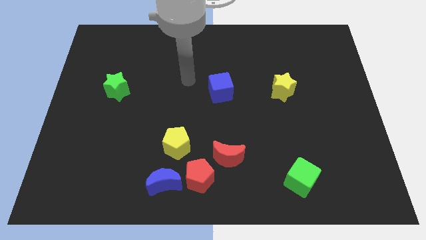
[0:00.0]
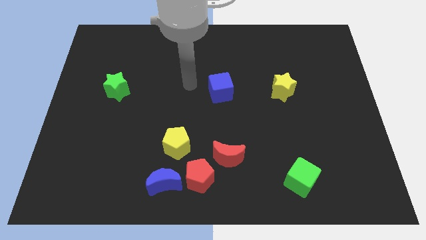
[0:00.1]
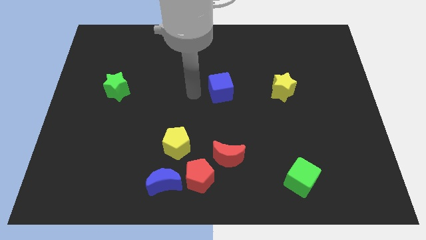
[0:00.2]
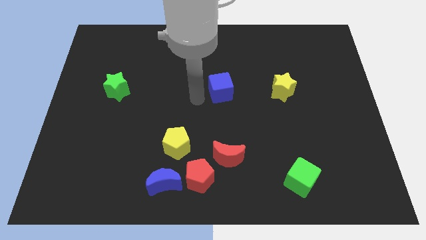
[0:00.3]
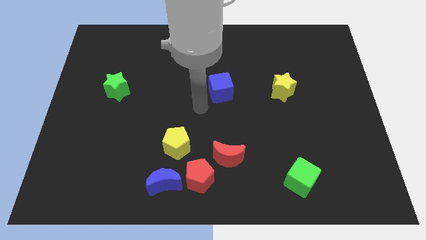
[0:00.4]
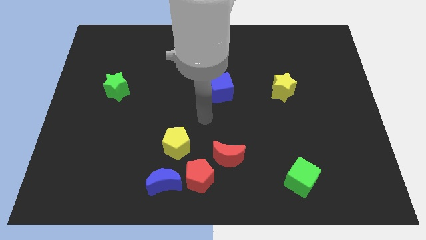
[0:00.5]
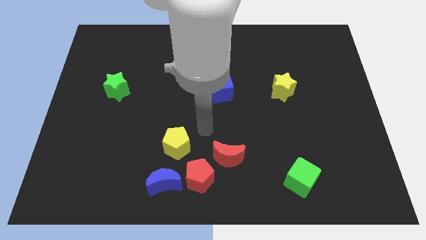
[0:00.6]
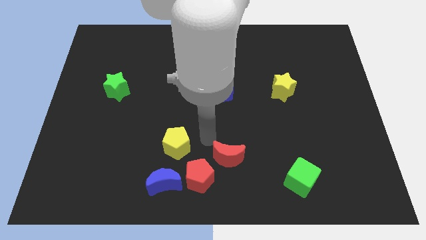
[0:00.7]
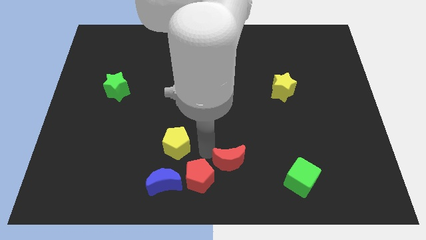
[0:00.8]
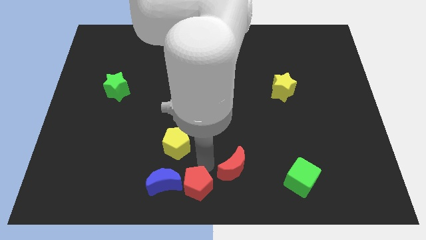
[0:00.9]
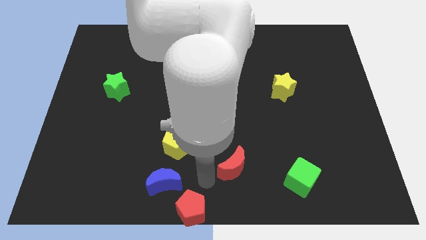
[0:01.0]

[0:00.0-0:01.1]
separate the red moon from the red pentagon

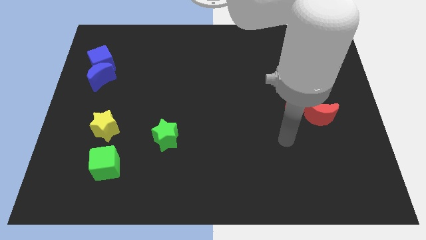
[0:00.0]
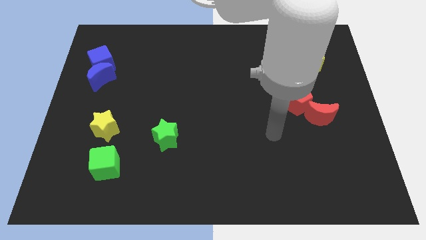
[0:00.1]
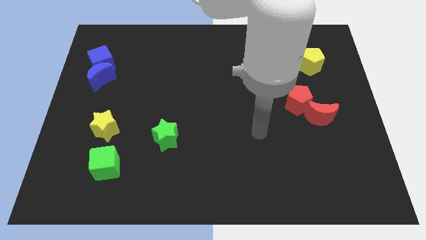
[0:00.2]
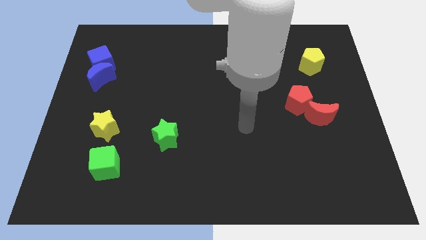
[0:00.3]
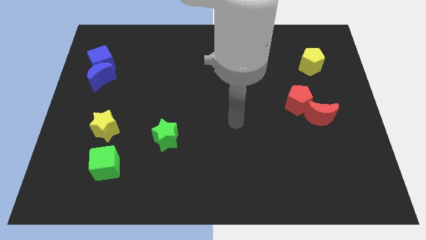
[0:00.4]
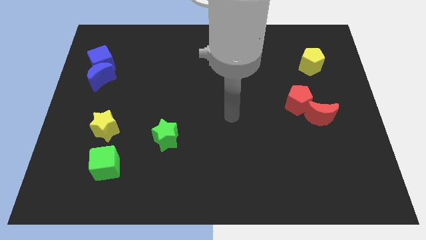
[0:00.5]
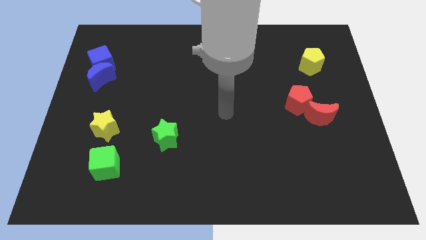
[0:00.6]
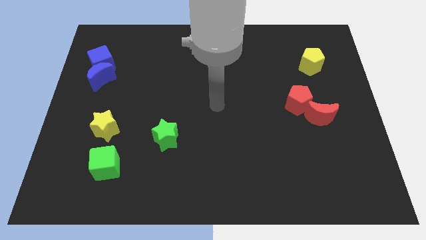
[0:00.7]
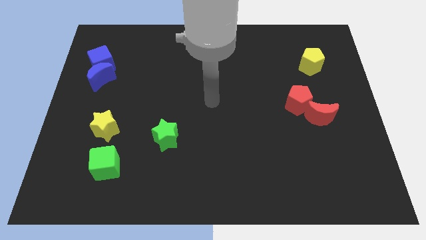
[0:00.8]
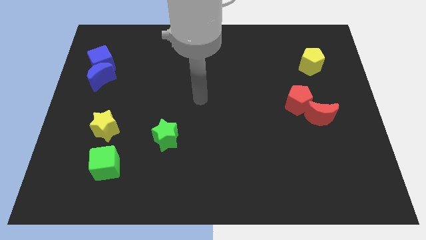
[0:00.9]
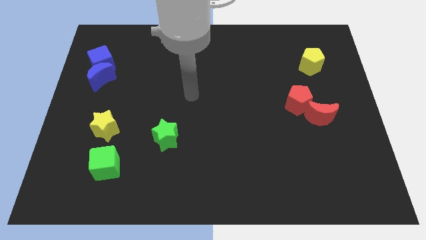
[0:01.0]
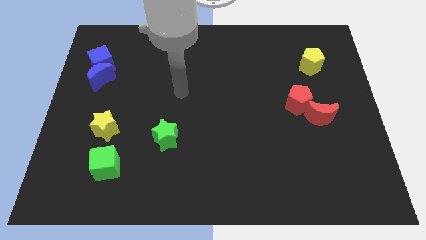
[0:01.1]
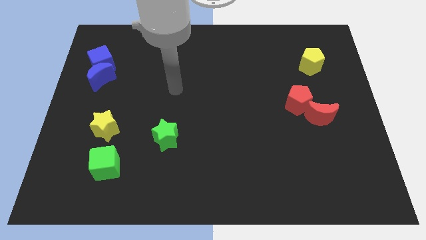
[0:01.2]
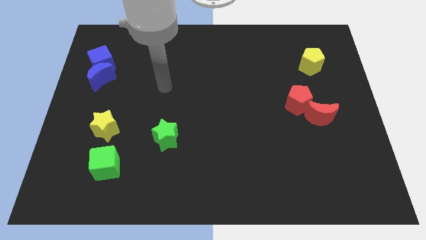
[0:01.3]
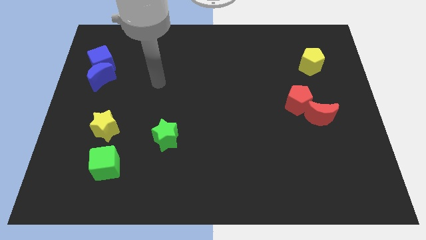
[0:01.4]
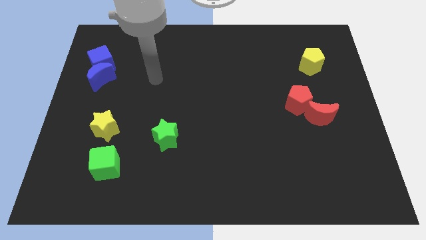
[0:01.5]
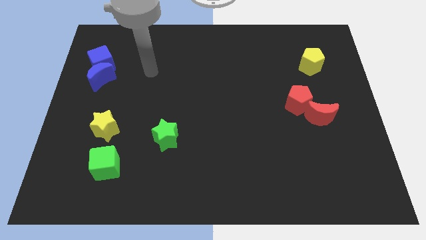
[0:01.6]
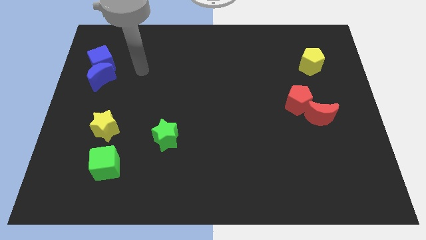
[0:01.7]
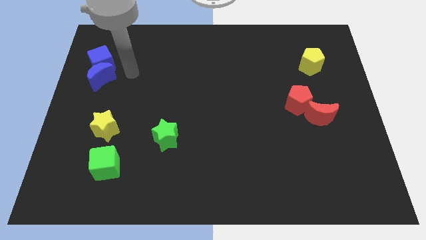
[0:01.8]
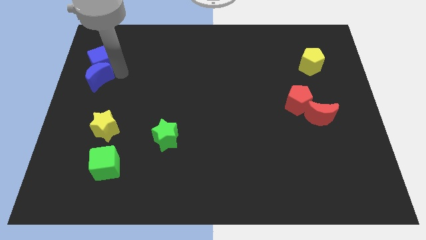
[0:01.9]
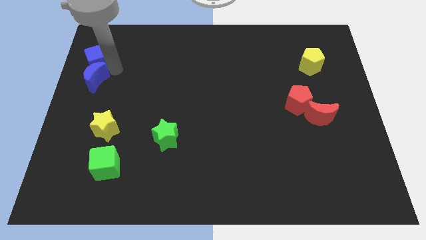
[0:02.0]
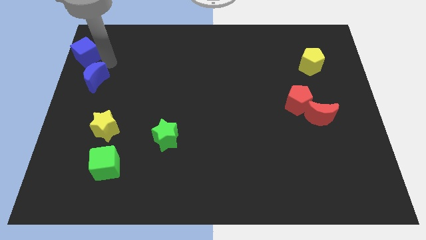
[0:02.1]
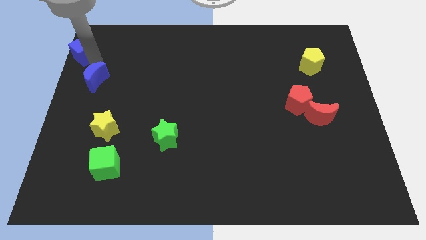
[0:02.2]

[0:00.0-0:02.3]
pull the blue moon apart from the blue cube

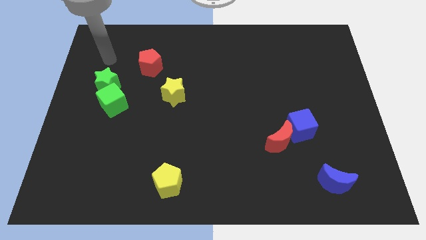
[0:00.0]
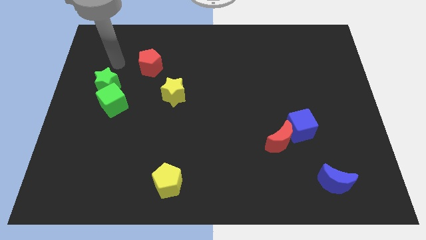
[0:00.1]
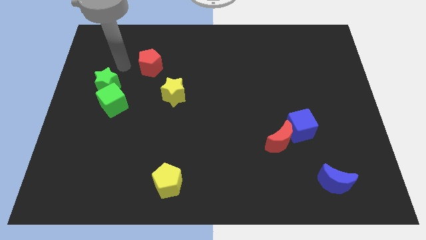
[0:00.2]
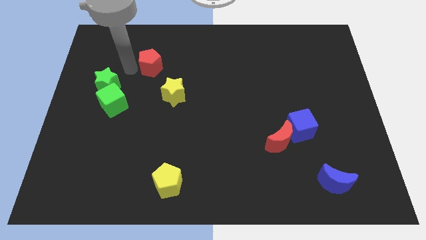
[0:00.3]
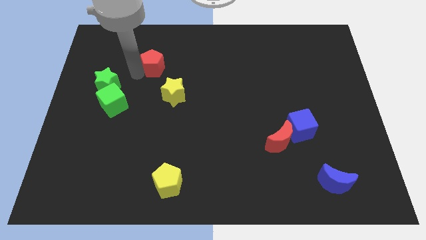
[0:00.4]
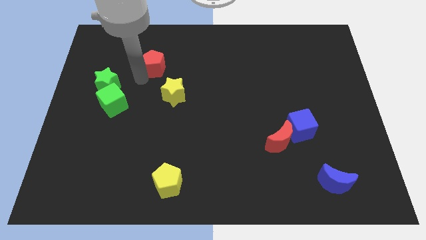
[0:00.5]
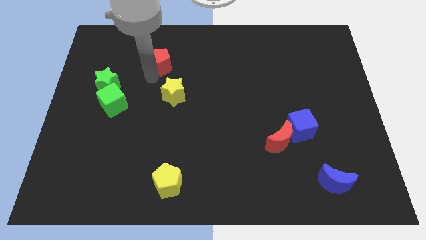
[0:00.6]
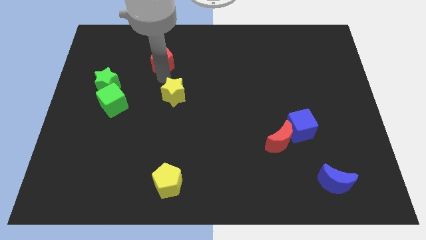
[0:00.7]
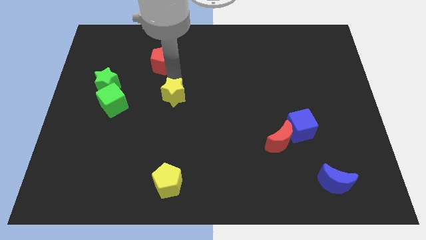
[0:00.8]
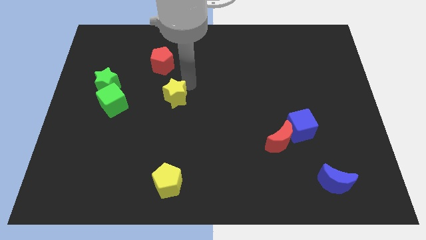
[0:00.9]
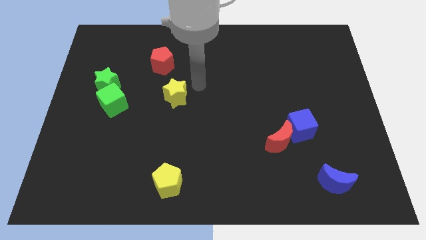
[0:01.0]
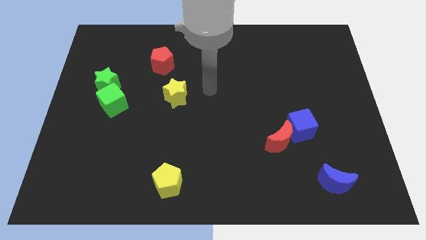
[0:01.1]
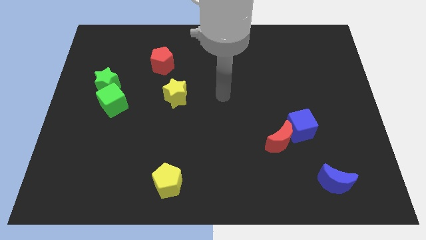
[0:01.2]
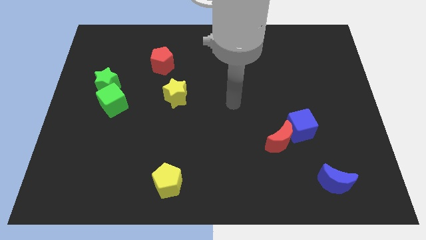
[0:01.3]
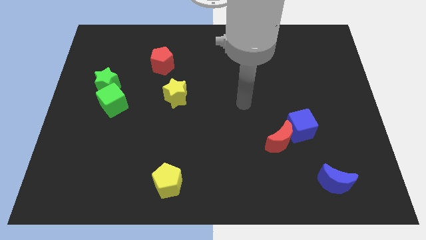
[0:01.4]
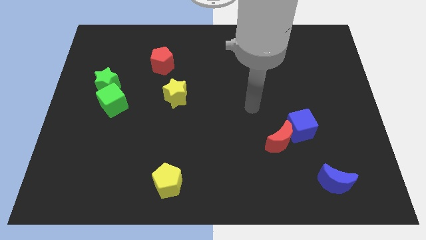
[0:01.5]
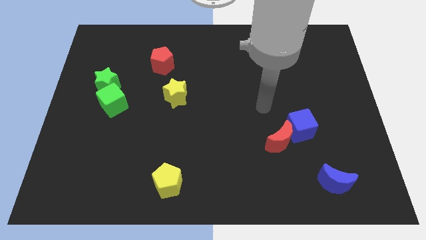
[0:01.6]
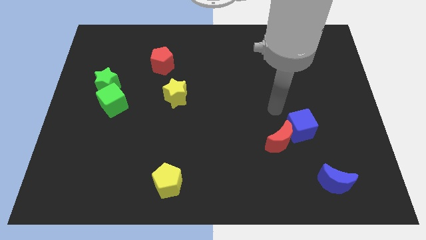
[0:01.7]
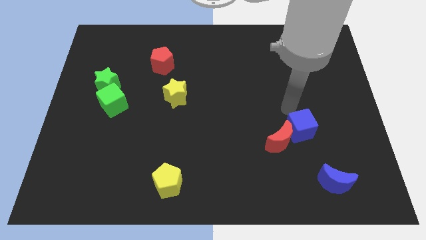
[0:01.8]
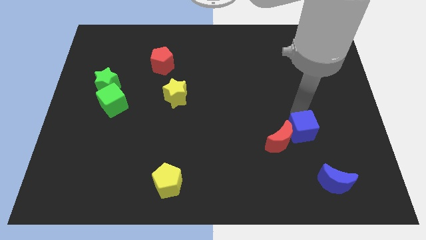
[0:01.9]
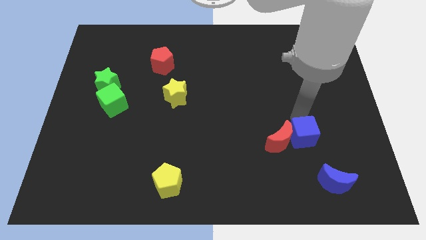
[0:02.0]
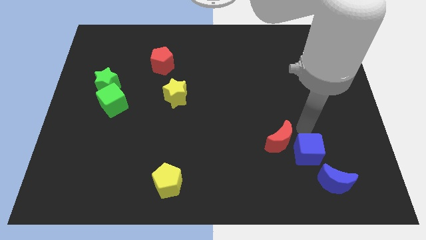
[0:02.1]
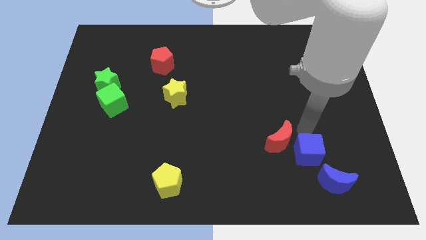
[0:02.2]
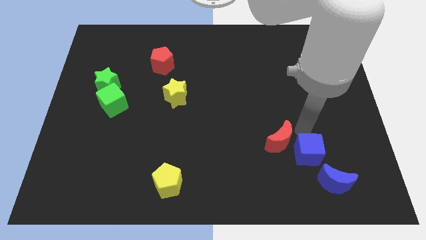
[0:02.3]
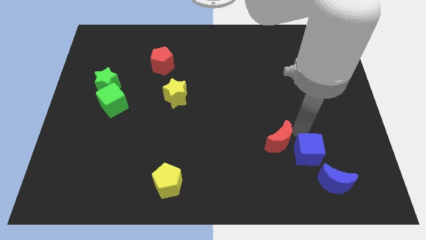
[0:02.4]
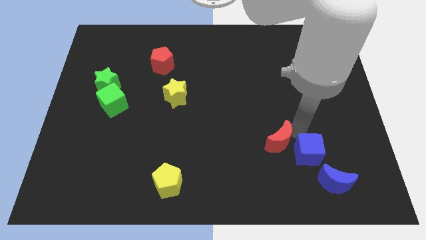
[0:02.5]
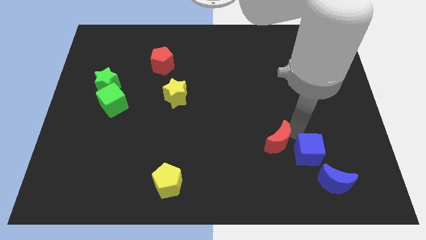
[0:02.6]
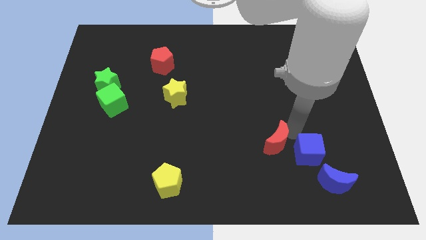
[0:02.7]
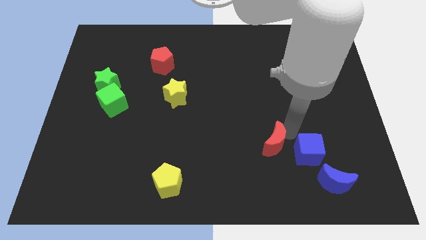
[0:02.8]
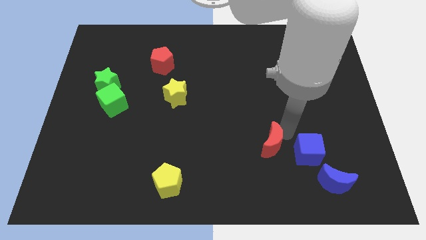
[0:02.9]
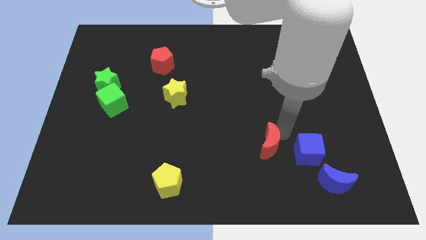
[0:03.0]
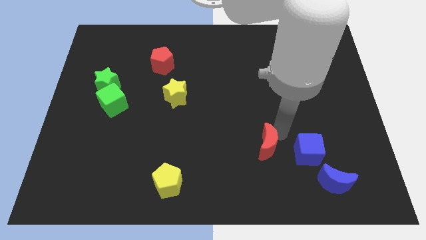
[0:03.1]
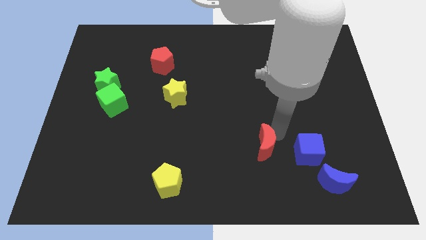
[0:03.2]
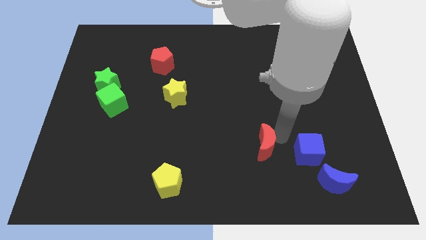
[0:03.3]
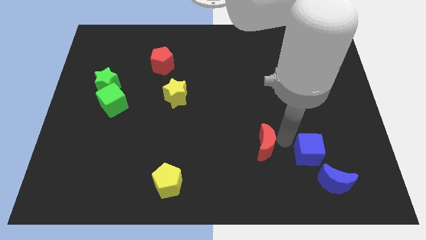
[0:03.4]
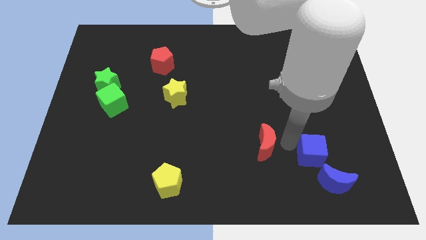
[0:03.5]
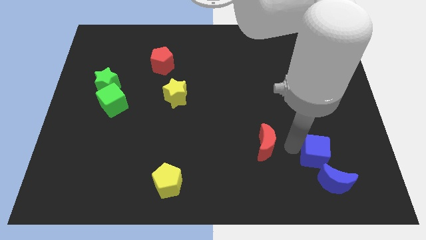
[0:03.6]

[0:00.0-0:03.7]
separate the red moon from the blue cube

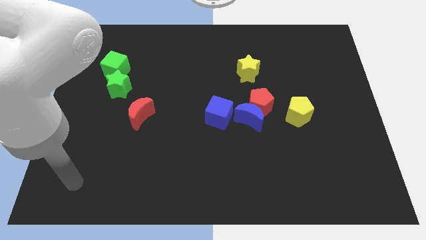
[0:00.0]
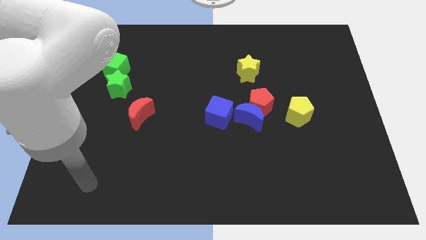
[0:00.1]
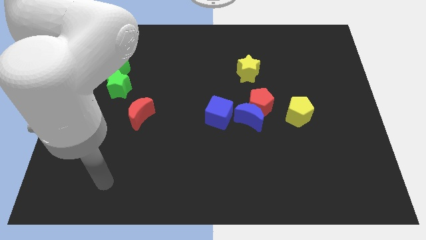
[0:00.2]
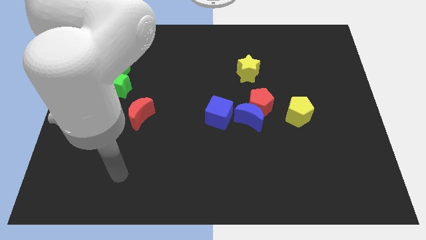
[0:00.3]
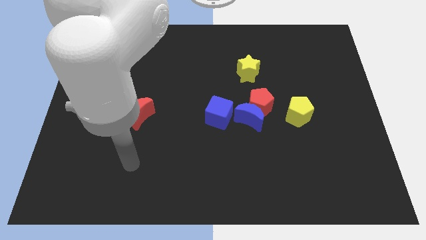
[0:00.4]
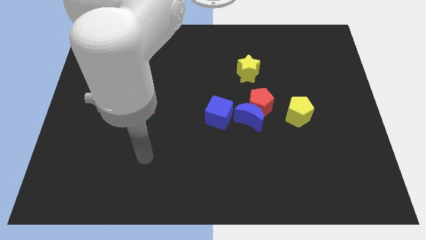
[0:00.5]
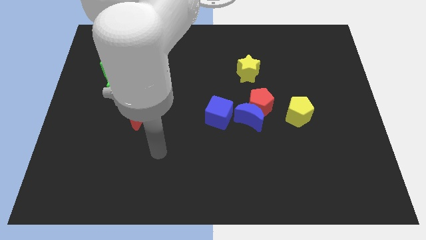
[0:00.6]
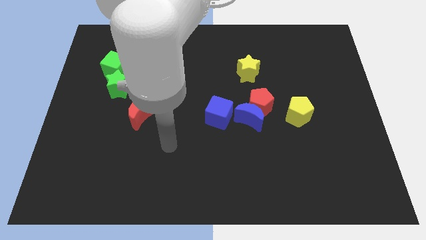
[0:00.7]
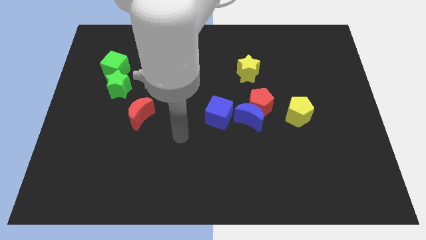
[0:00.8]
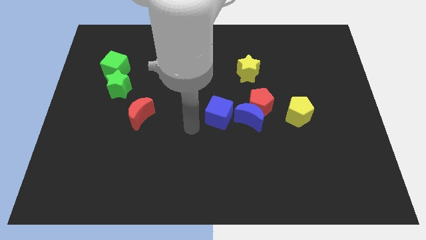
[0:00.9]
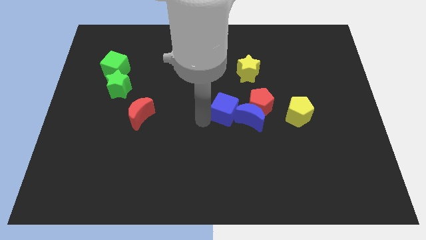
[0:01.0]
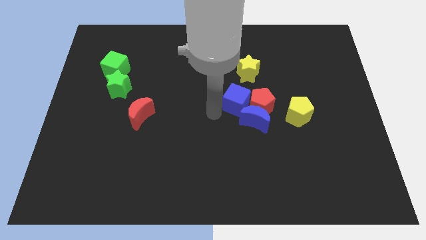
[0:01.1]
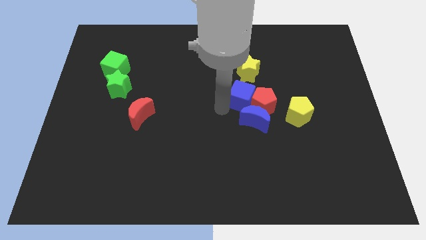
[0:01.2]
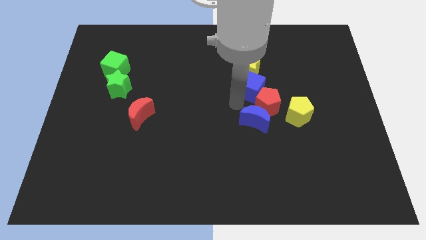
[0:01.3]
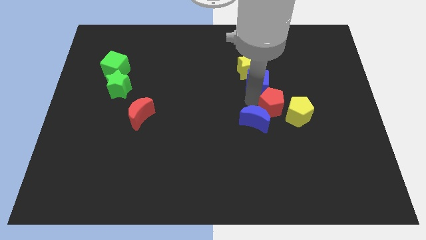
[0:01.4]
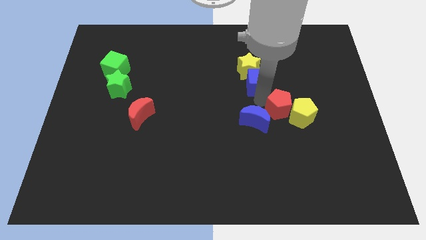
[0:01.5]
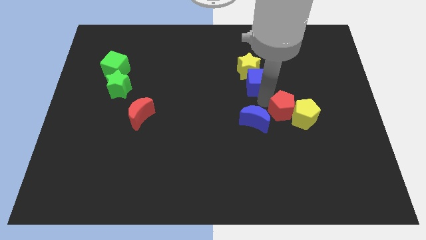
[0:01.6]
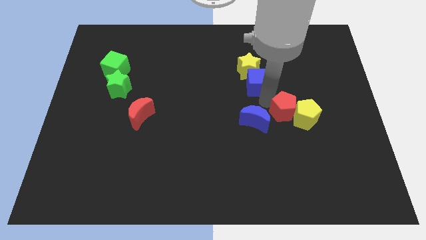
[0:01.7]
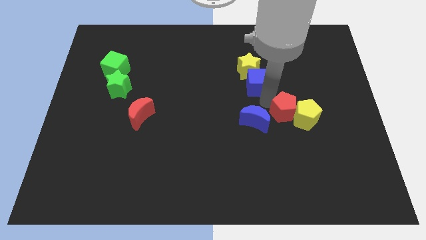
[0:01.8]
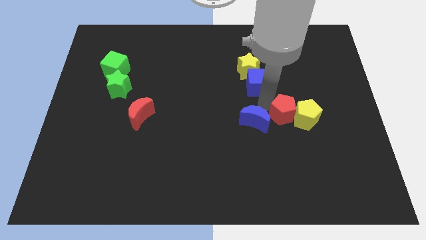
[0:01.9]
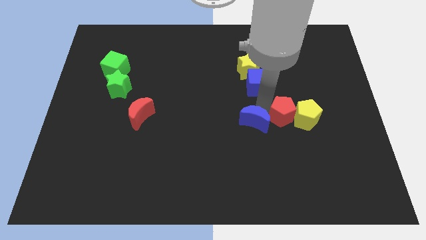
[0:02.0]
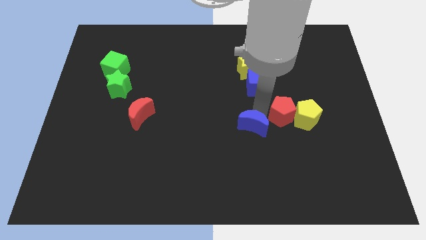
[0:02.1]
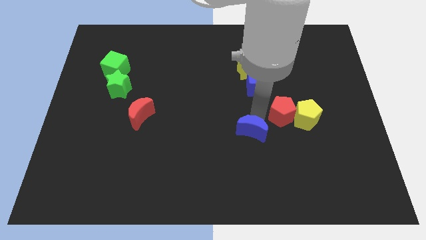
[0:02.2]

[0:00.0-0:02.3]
separate the blue moon from the red pentagon and blue cube

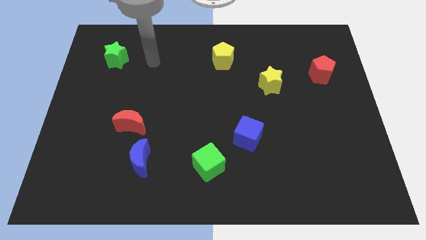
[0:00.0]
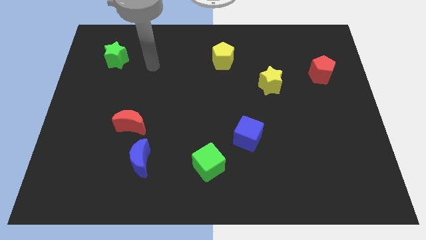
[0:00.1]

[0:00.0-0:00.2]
move the red moon away from the blue moon
